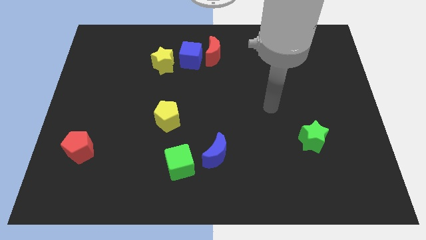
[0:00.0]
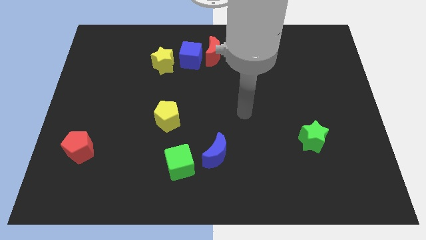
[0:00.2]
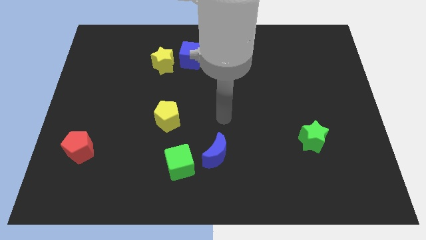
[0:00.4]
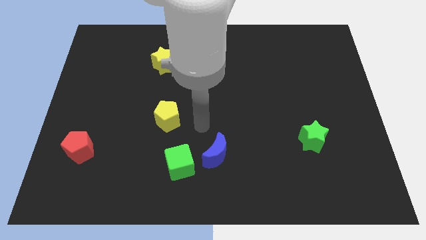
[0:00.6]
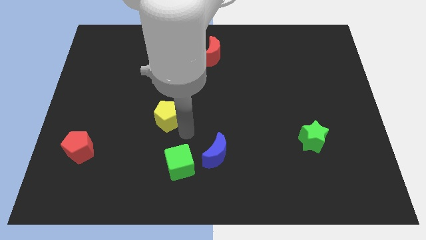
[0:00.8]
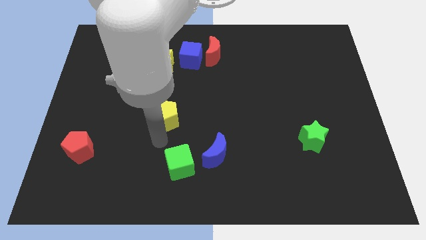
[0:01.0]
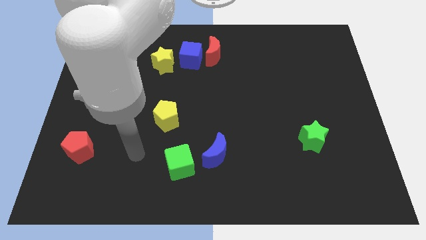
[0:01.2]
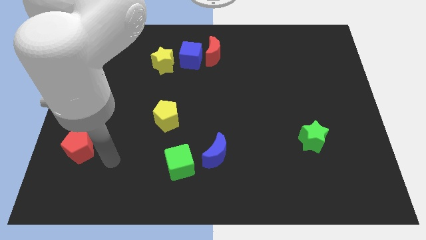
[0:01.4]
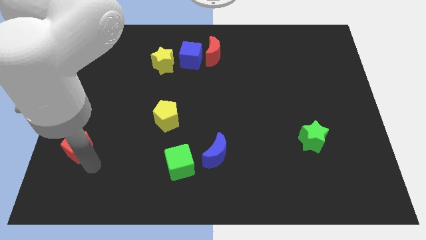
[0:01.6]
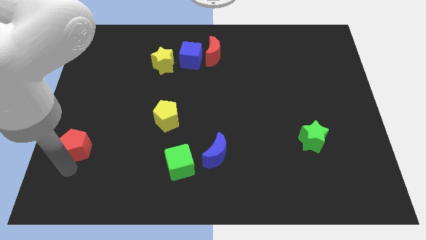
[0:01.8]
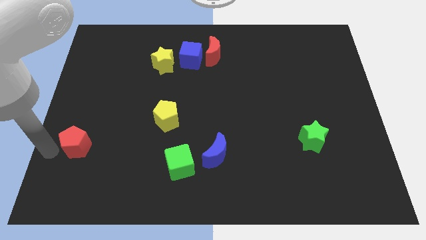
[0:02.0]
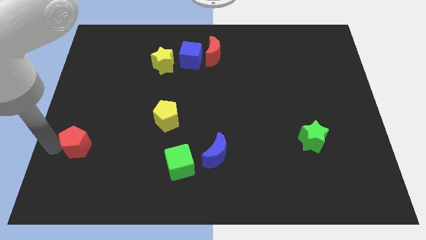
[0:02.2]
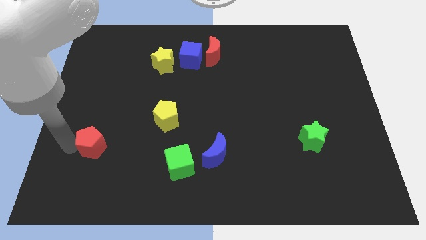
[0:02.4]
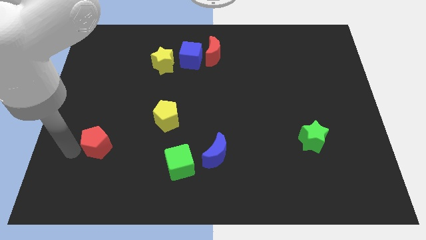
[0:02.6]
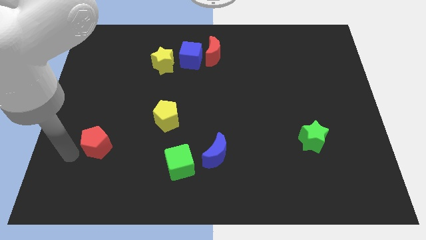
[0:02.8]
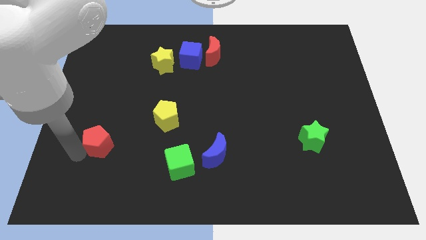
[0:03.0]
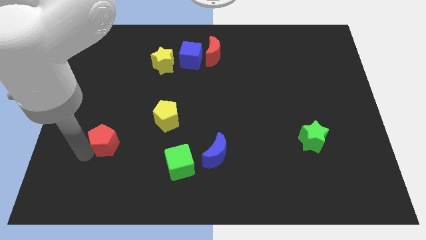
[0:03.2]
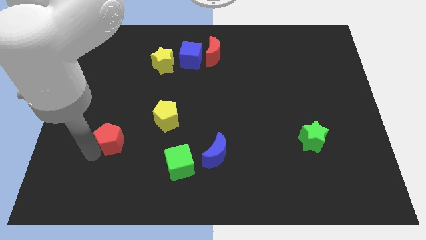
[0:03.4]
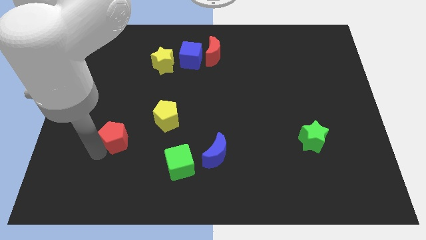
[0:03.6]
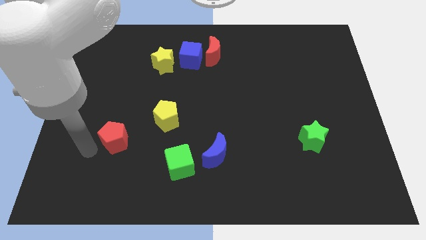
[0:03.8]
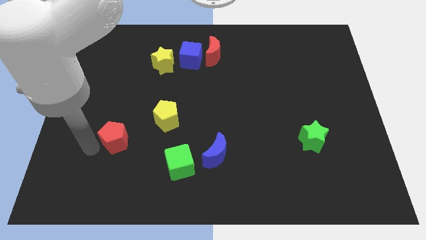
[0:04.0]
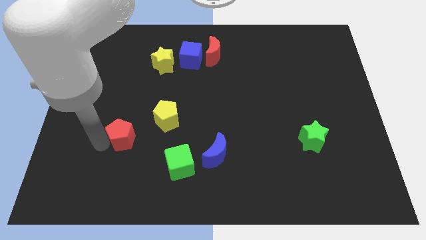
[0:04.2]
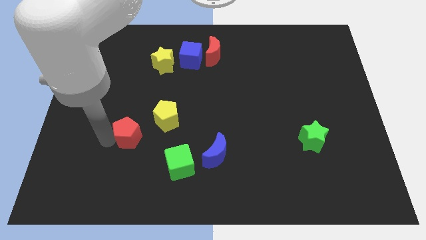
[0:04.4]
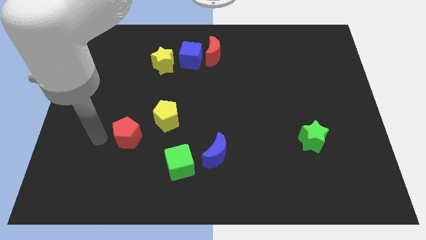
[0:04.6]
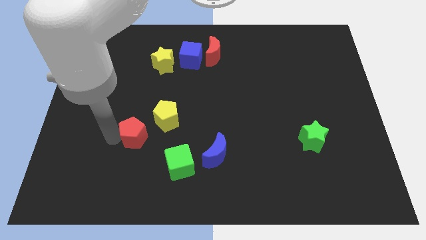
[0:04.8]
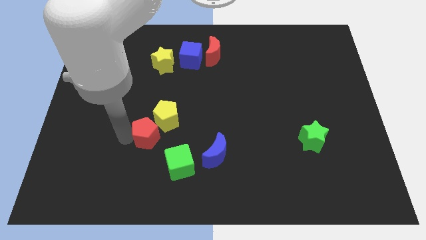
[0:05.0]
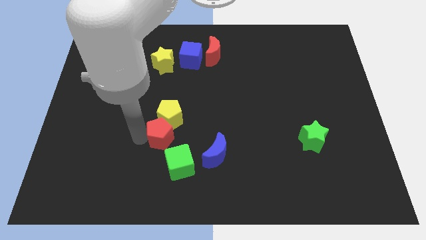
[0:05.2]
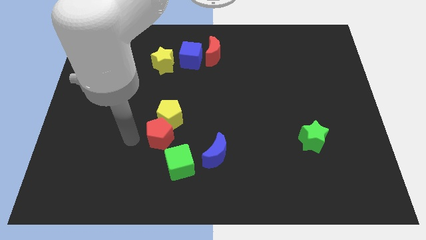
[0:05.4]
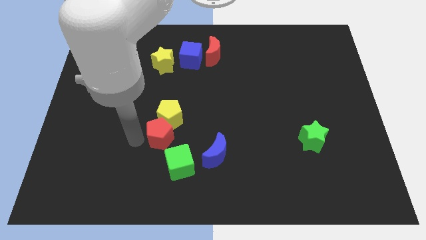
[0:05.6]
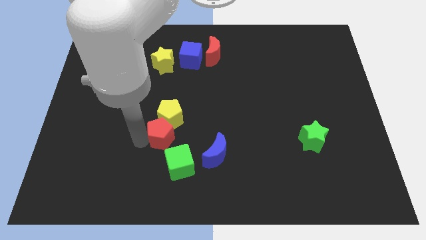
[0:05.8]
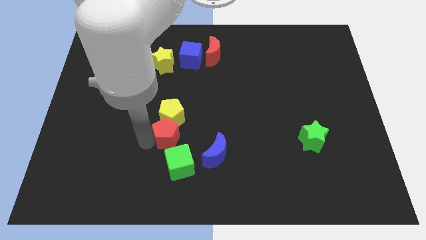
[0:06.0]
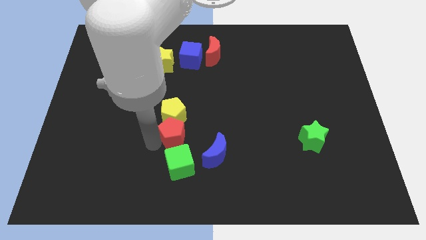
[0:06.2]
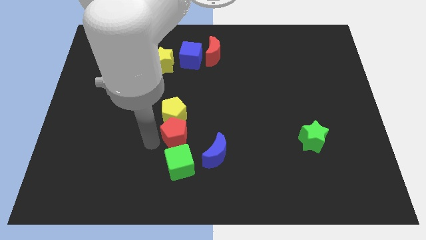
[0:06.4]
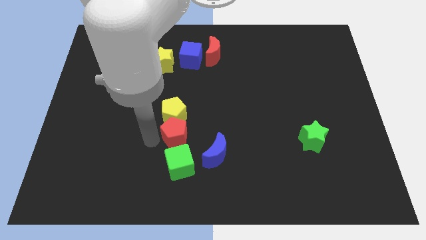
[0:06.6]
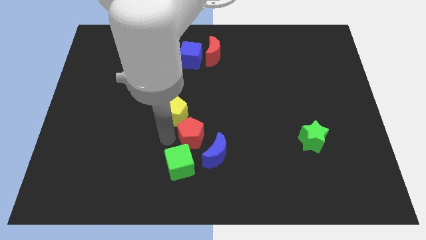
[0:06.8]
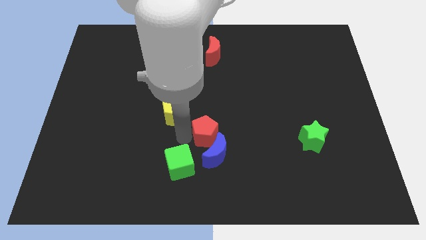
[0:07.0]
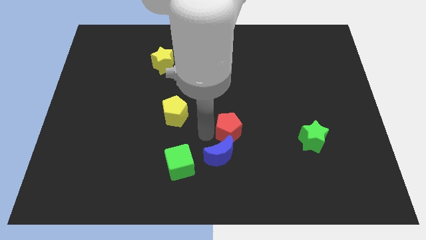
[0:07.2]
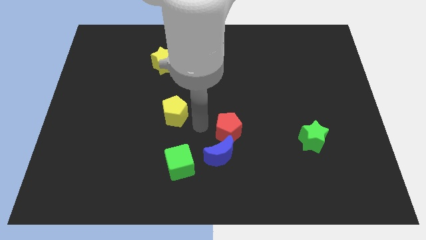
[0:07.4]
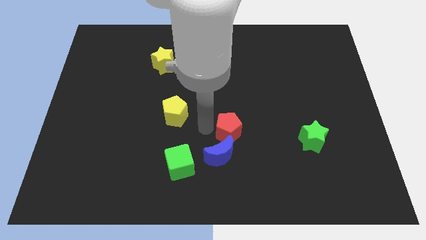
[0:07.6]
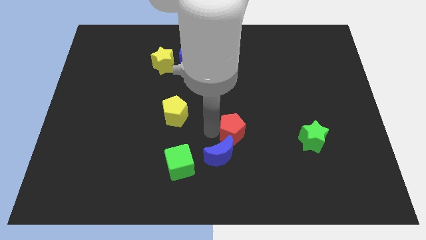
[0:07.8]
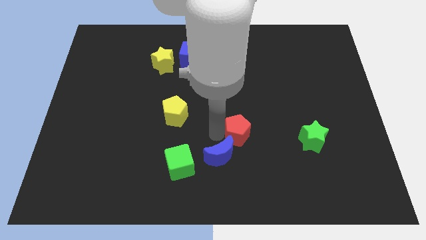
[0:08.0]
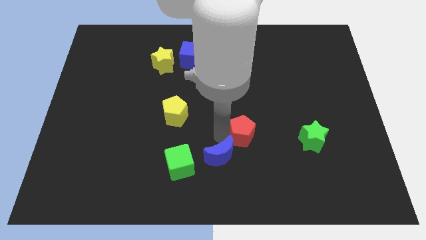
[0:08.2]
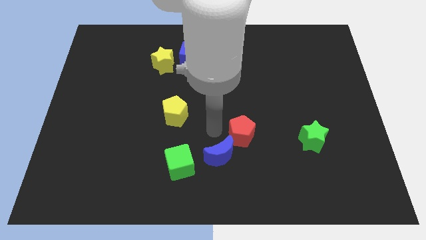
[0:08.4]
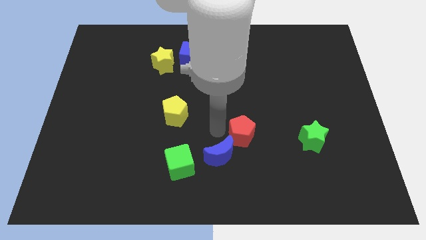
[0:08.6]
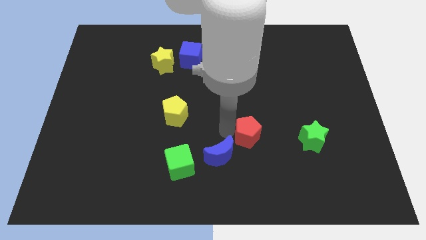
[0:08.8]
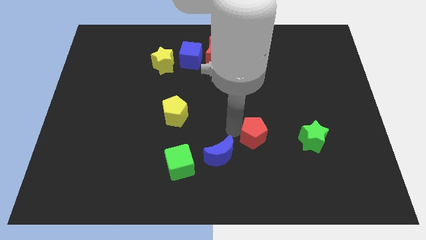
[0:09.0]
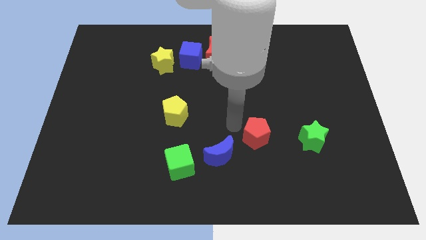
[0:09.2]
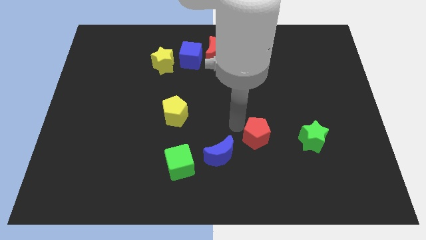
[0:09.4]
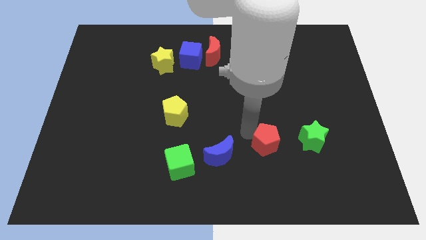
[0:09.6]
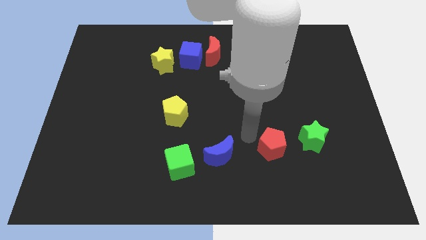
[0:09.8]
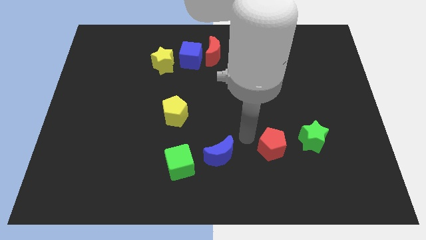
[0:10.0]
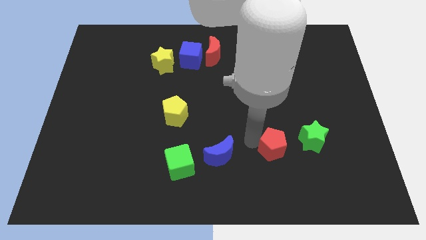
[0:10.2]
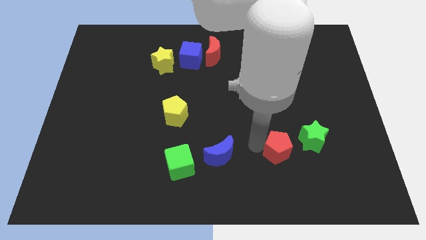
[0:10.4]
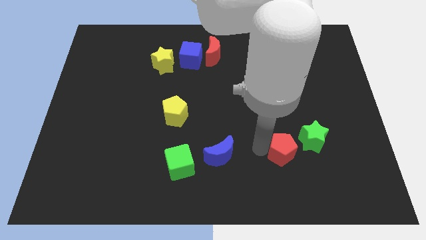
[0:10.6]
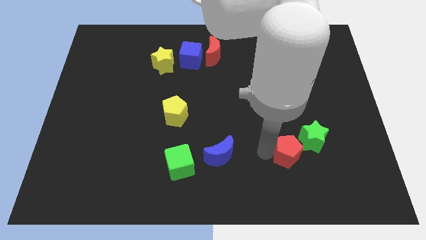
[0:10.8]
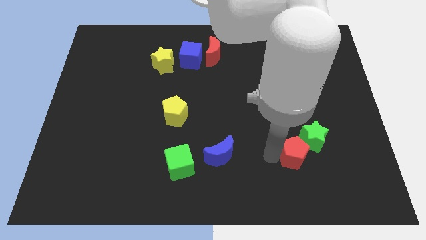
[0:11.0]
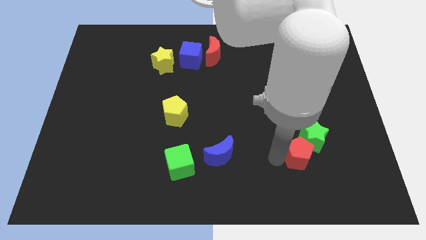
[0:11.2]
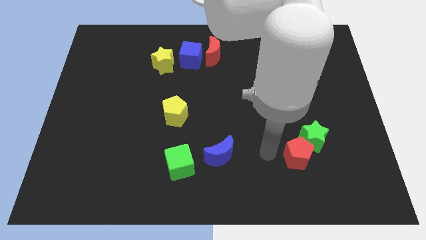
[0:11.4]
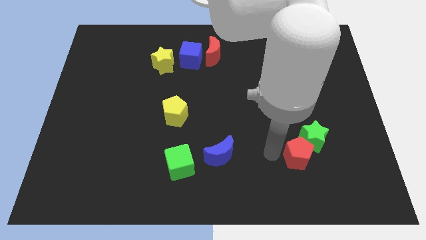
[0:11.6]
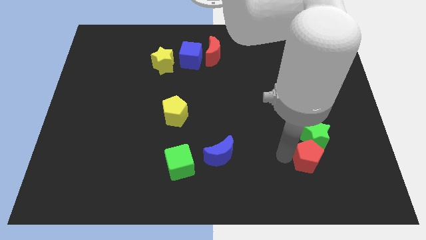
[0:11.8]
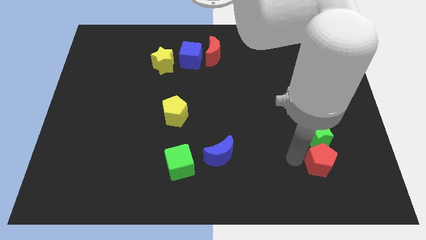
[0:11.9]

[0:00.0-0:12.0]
move the red pentagon diagonally down and to the right of the green star
